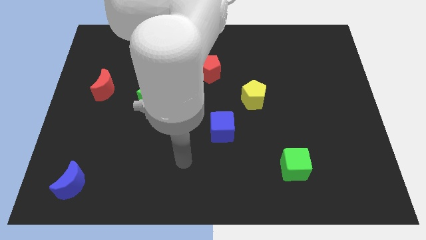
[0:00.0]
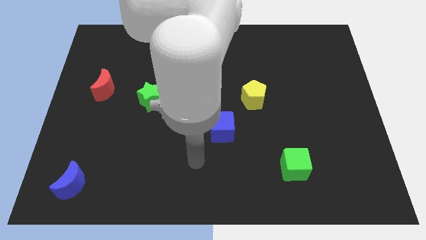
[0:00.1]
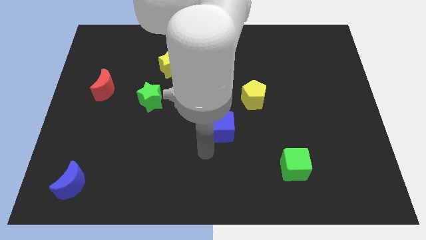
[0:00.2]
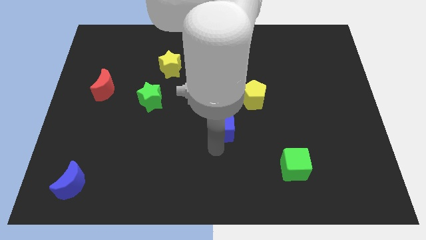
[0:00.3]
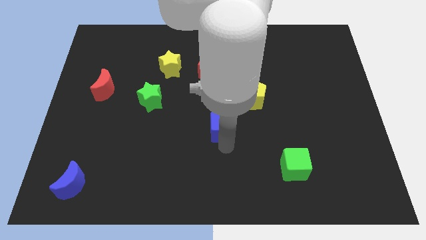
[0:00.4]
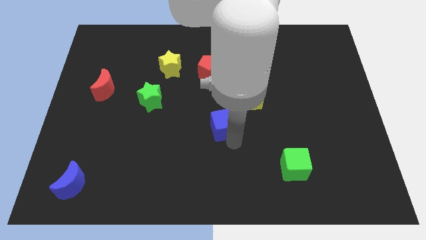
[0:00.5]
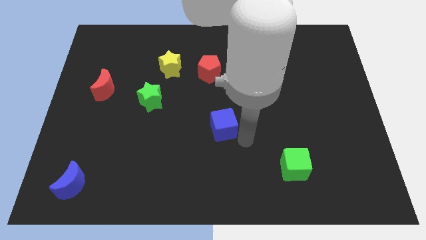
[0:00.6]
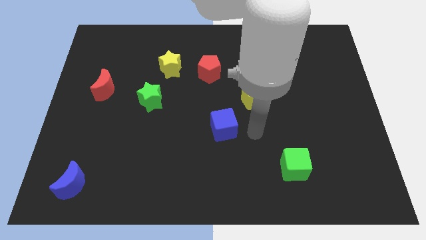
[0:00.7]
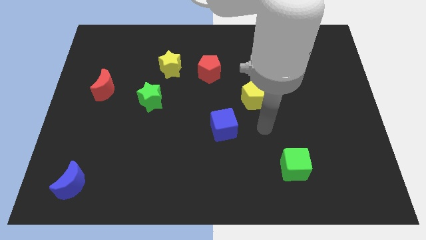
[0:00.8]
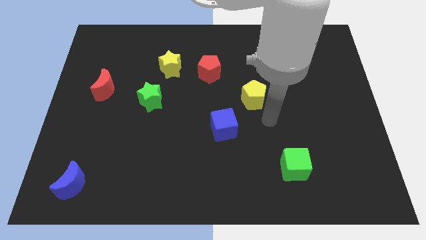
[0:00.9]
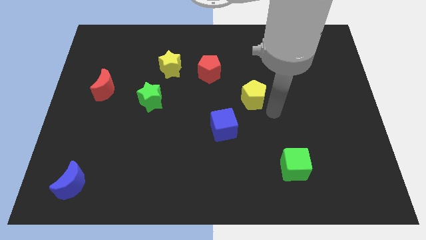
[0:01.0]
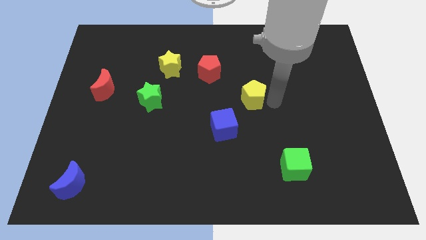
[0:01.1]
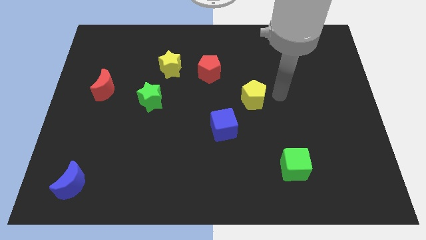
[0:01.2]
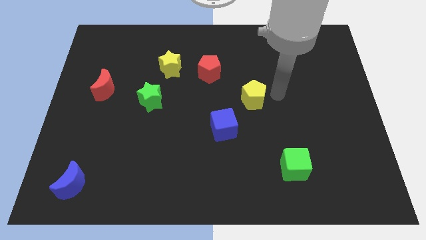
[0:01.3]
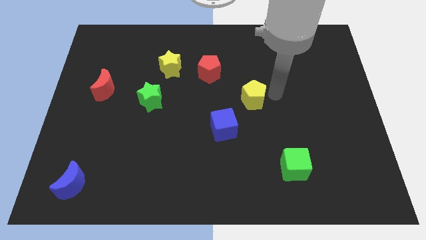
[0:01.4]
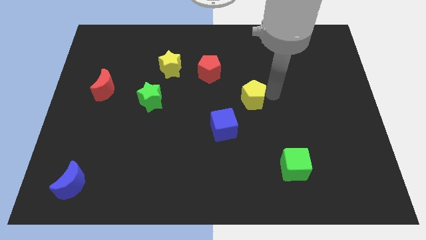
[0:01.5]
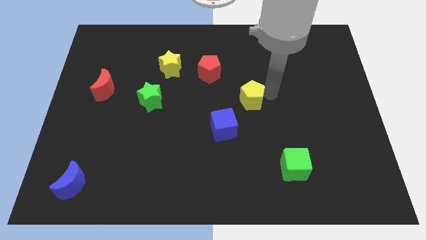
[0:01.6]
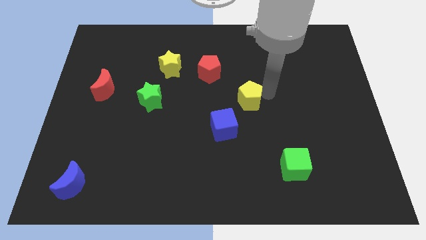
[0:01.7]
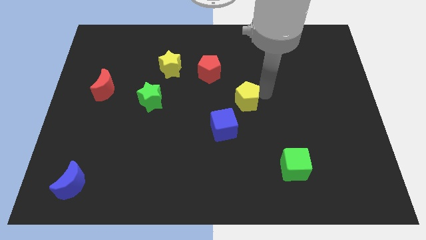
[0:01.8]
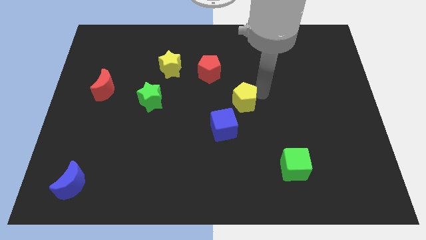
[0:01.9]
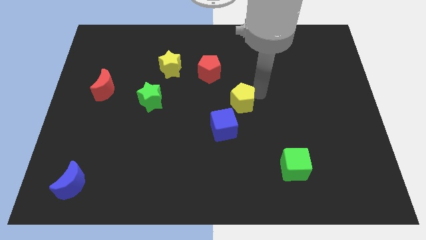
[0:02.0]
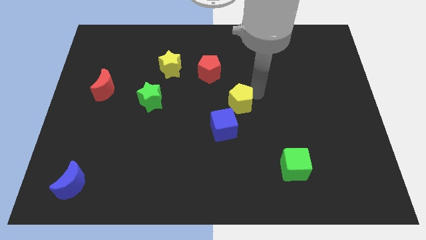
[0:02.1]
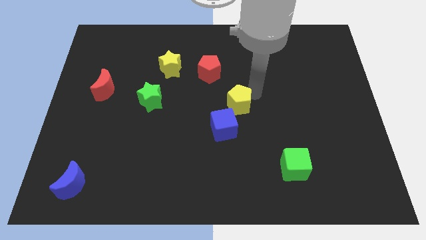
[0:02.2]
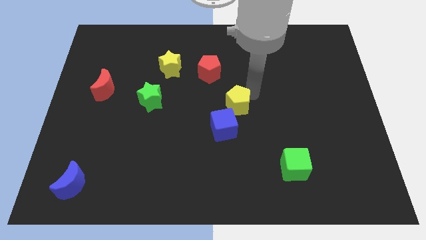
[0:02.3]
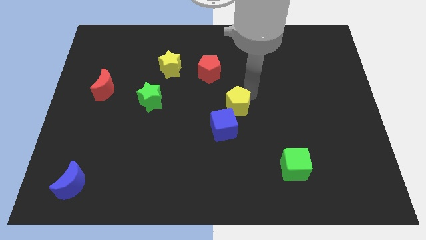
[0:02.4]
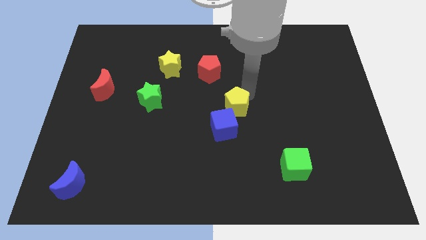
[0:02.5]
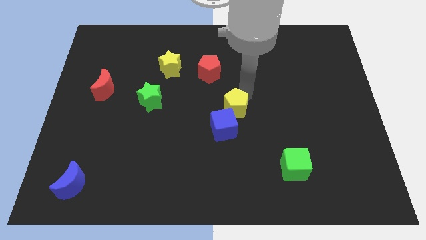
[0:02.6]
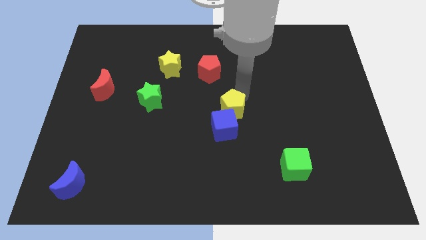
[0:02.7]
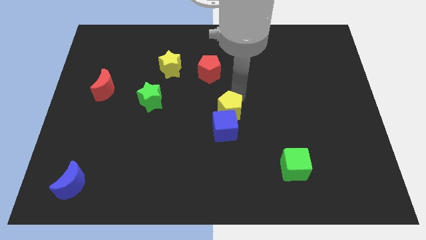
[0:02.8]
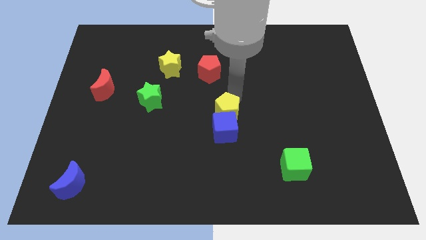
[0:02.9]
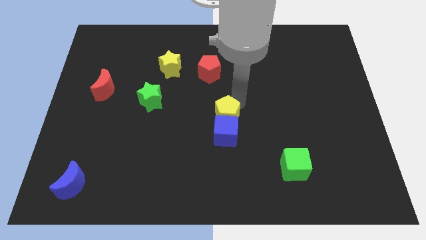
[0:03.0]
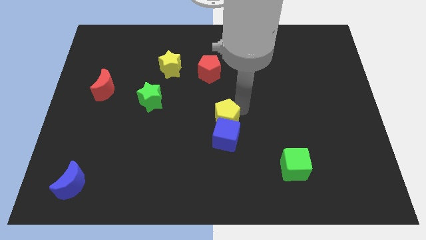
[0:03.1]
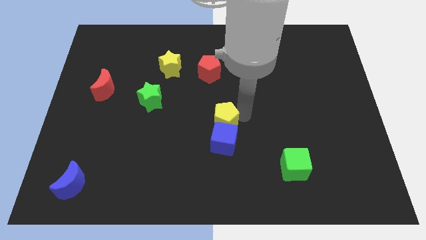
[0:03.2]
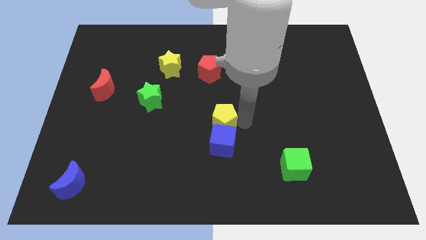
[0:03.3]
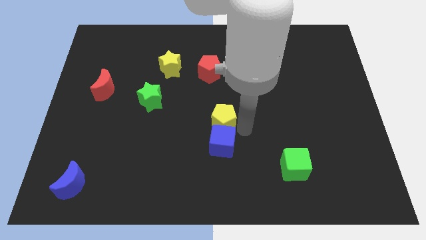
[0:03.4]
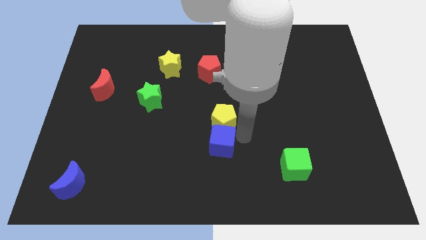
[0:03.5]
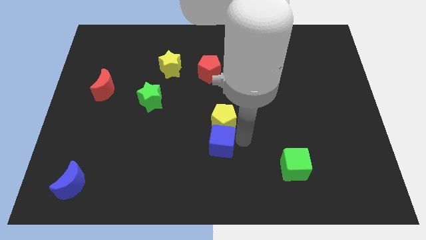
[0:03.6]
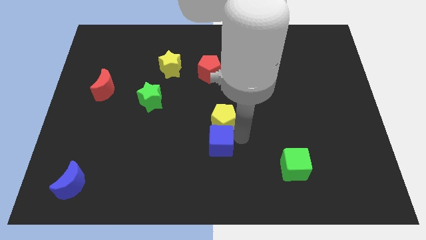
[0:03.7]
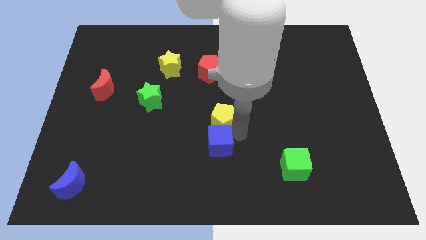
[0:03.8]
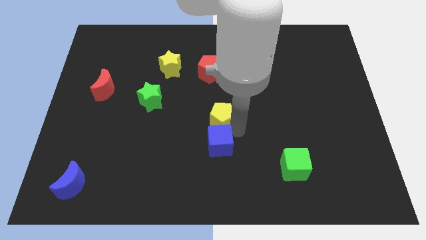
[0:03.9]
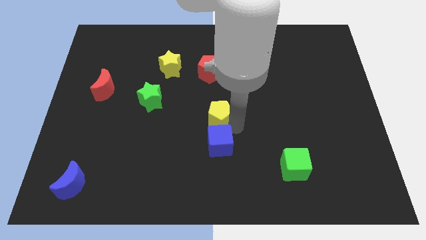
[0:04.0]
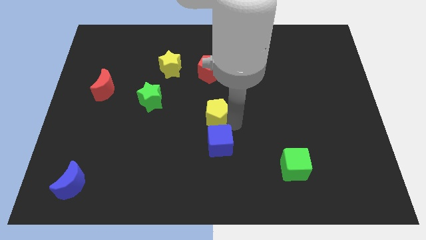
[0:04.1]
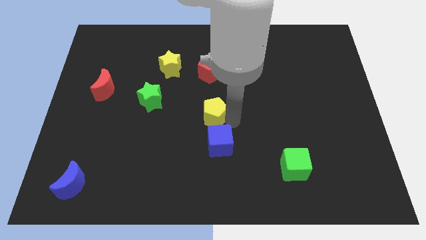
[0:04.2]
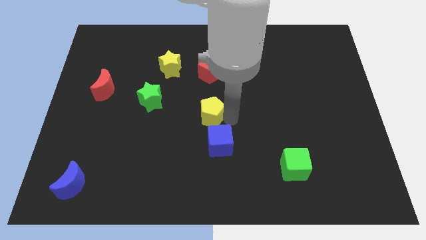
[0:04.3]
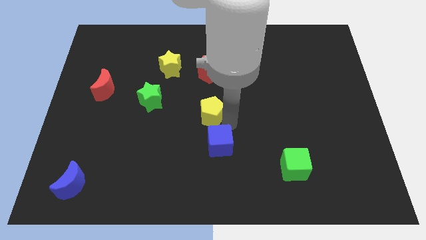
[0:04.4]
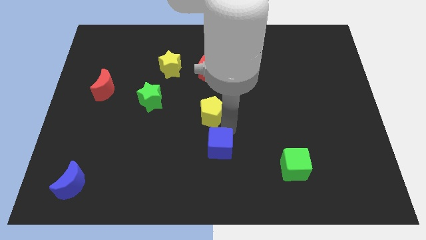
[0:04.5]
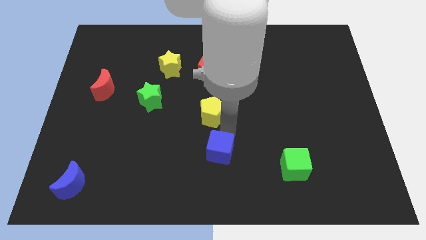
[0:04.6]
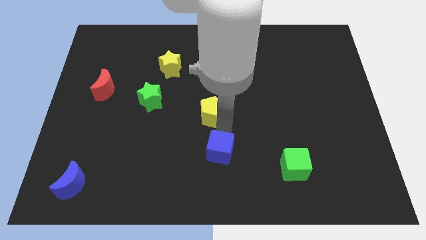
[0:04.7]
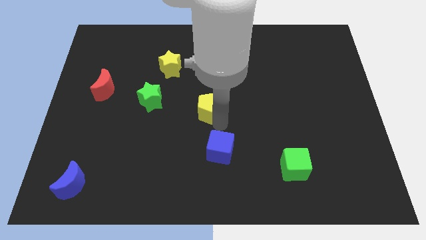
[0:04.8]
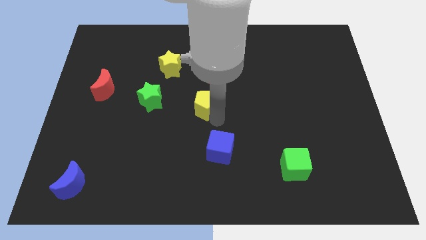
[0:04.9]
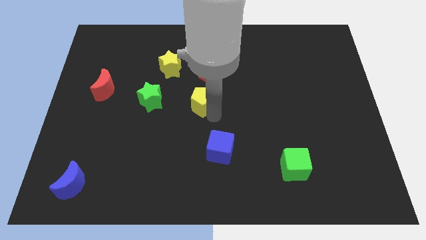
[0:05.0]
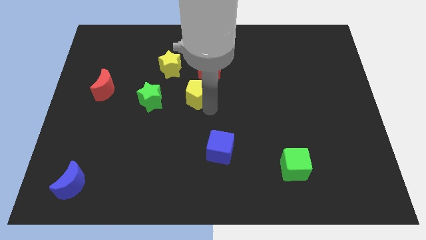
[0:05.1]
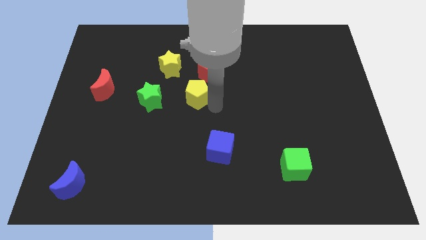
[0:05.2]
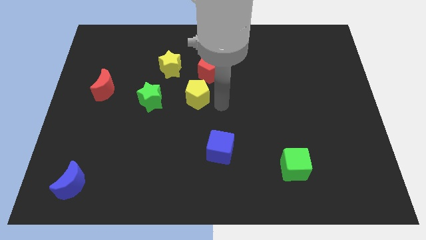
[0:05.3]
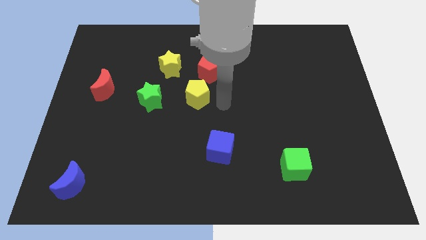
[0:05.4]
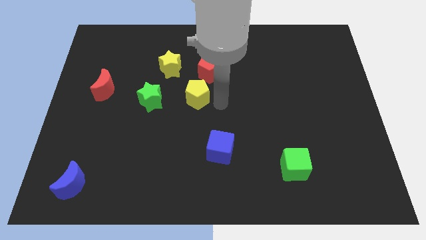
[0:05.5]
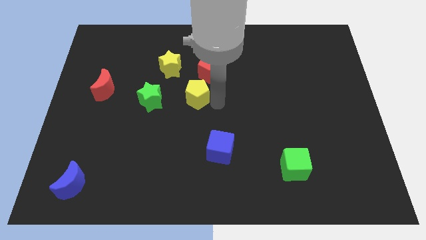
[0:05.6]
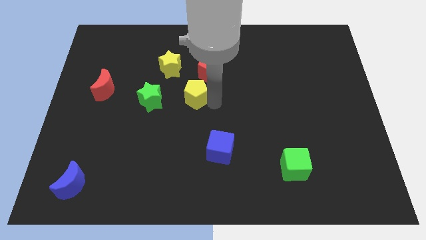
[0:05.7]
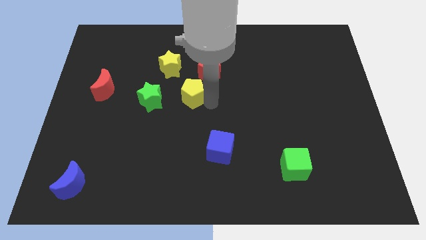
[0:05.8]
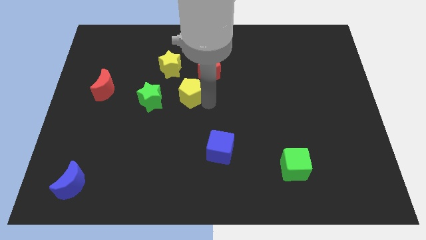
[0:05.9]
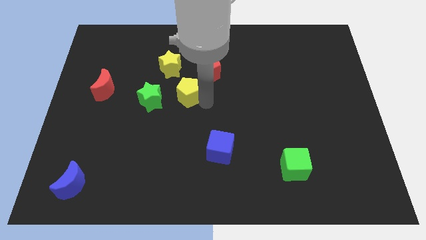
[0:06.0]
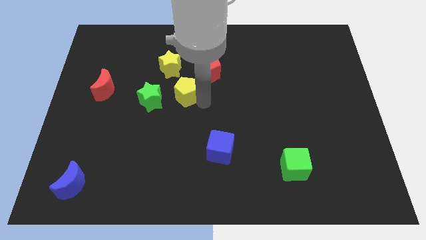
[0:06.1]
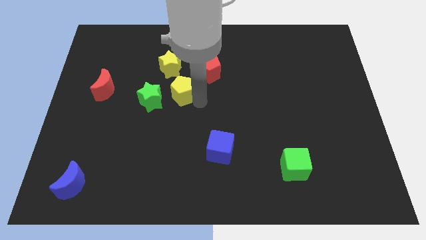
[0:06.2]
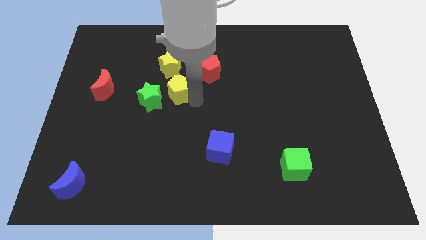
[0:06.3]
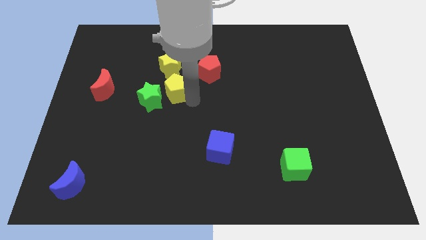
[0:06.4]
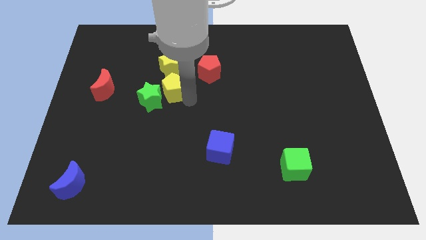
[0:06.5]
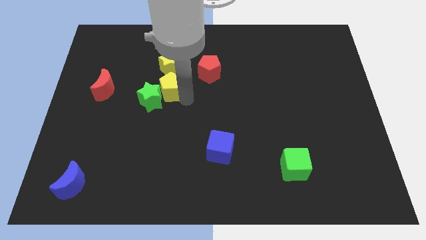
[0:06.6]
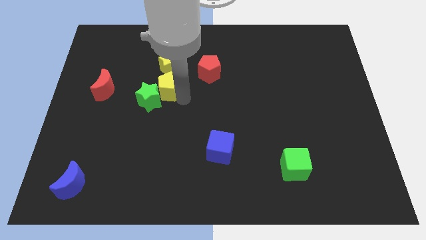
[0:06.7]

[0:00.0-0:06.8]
slide the yellow pentagon to the left

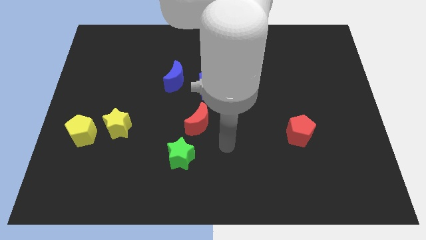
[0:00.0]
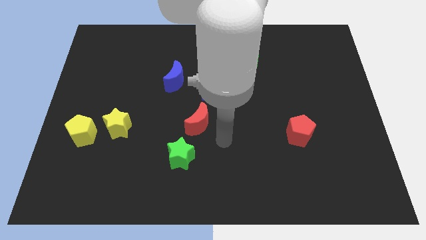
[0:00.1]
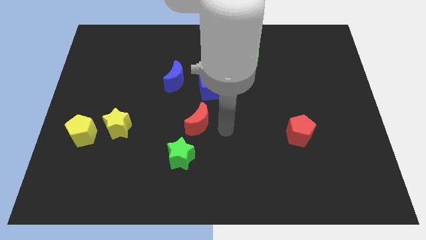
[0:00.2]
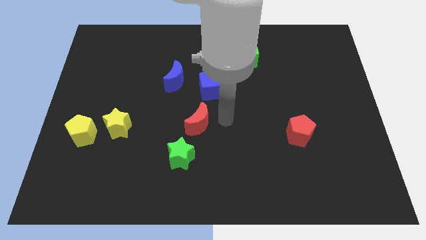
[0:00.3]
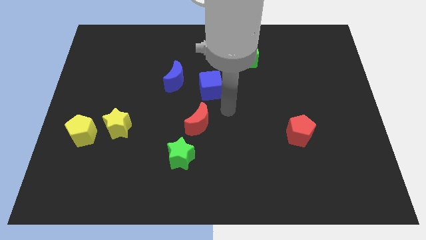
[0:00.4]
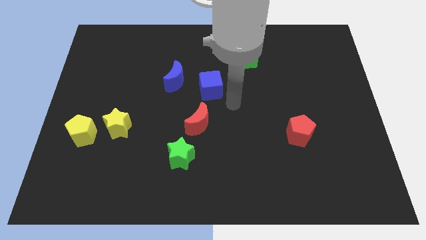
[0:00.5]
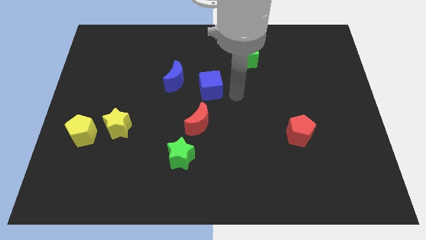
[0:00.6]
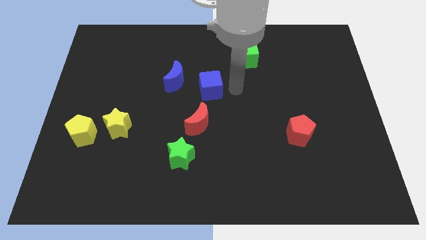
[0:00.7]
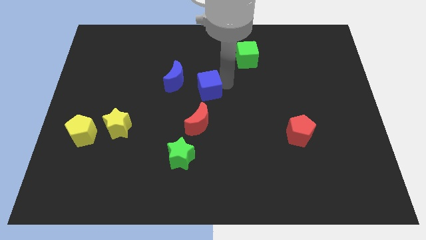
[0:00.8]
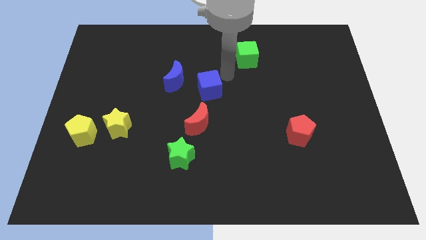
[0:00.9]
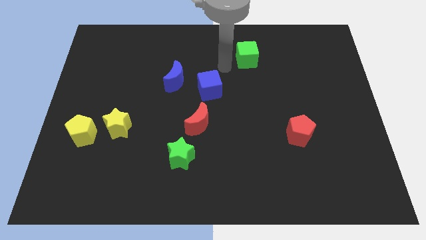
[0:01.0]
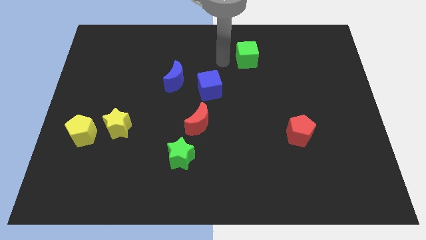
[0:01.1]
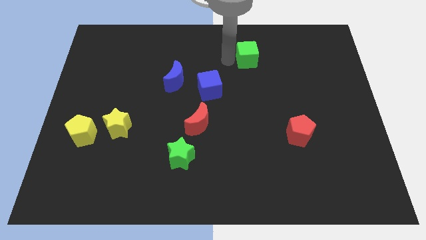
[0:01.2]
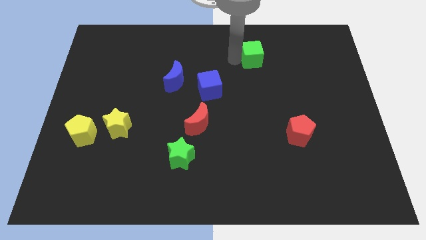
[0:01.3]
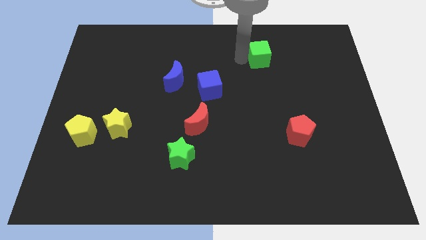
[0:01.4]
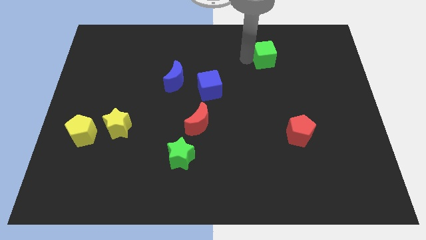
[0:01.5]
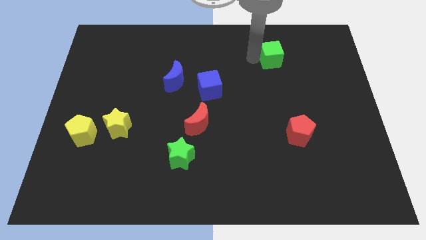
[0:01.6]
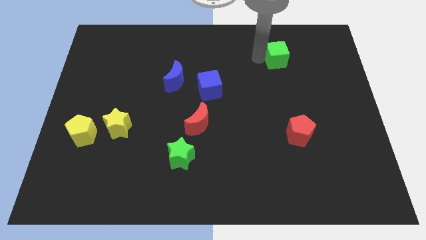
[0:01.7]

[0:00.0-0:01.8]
slightly push the green cube right
